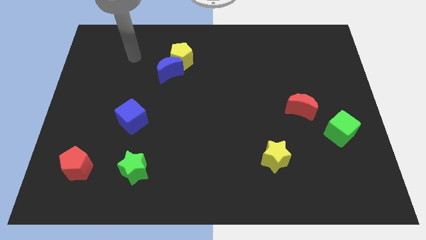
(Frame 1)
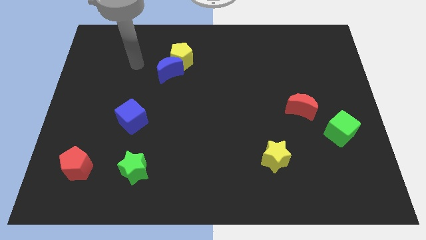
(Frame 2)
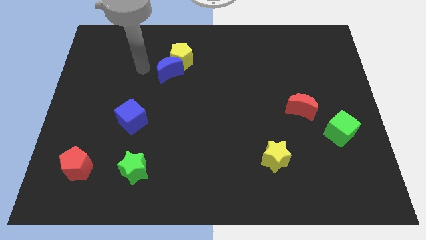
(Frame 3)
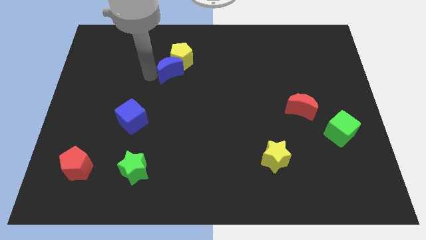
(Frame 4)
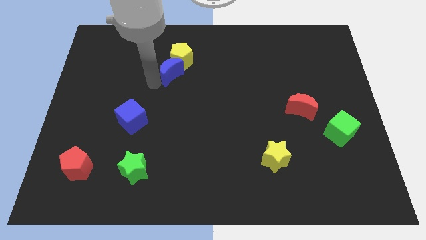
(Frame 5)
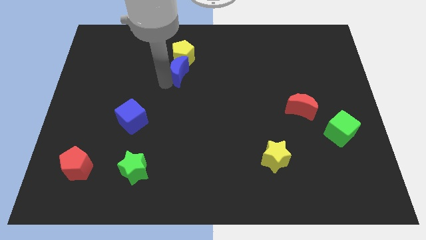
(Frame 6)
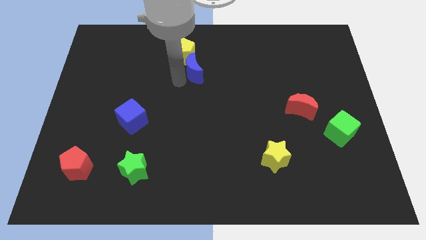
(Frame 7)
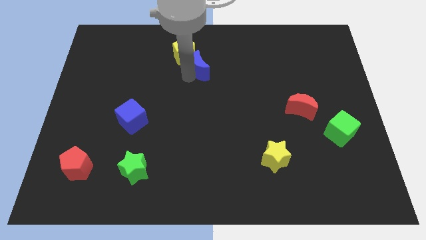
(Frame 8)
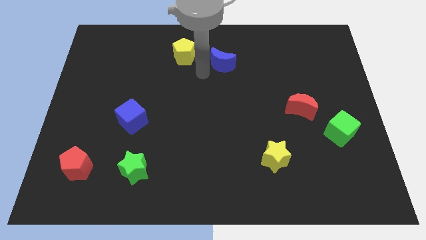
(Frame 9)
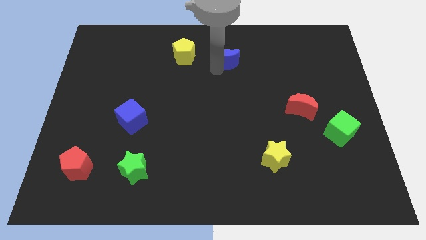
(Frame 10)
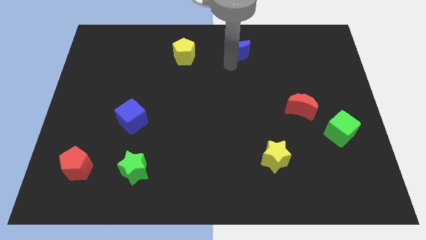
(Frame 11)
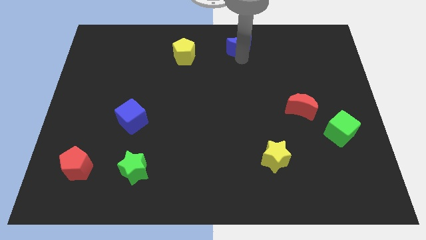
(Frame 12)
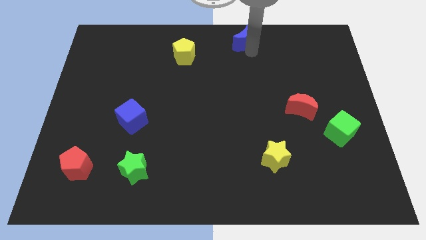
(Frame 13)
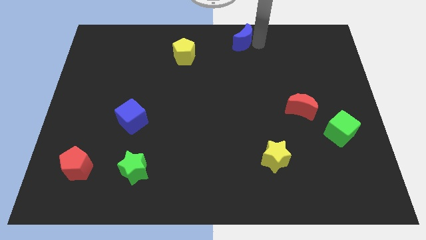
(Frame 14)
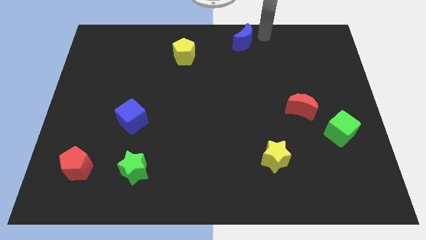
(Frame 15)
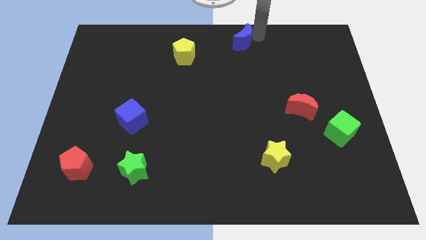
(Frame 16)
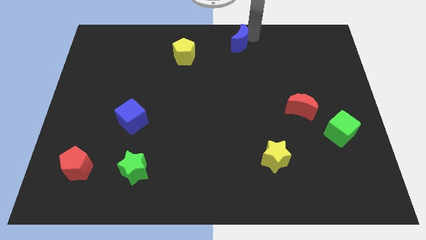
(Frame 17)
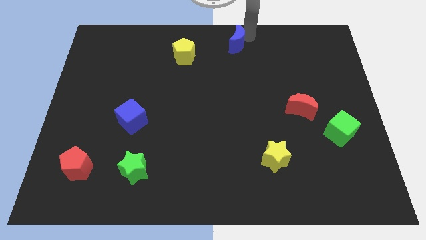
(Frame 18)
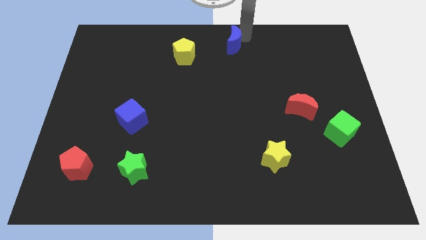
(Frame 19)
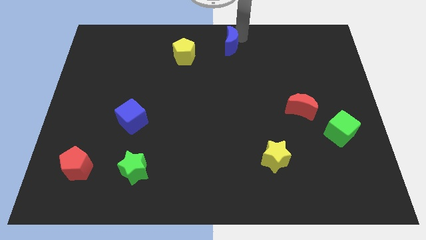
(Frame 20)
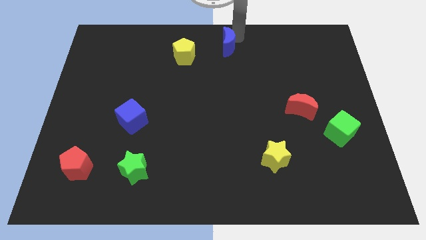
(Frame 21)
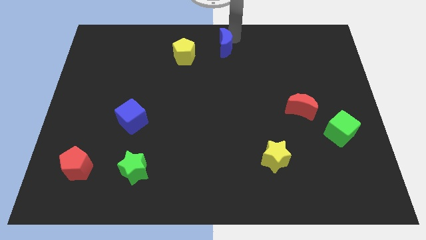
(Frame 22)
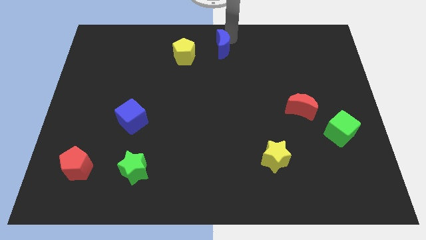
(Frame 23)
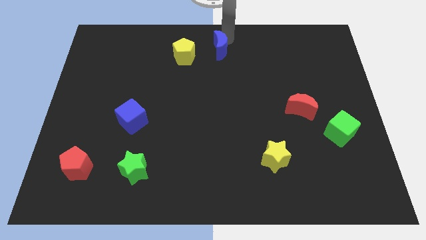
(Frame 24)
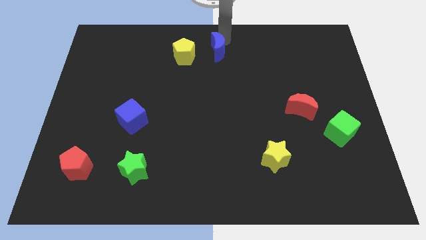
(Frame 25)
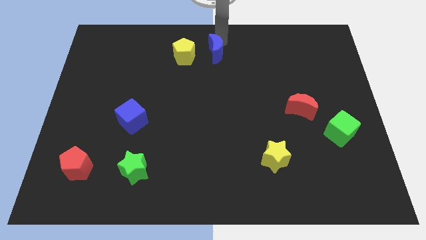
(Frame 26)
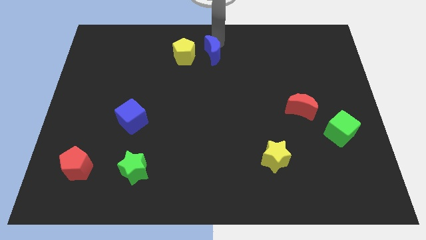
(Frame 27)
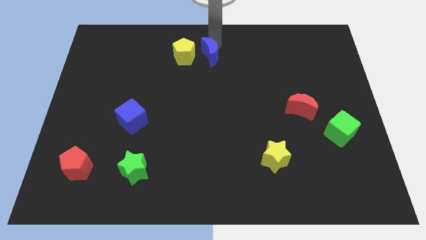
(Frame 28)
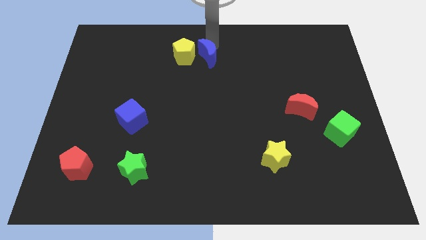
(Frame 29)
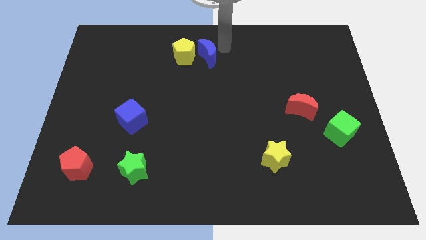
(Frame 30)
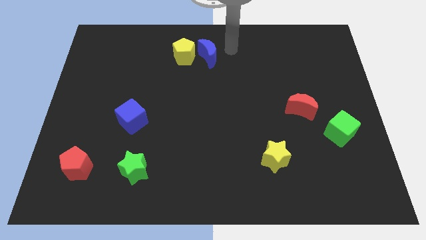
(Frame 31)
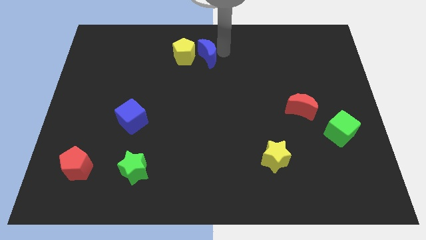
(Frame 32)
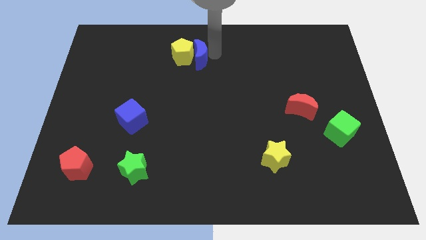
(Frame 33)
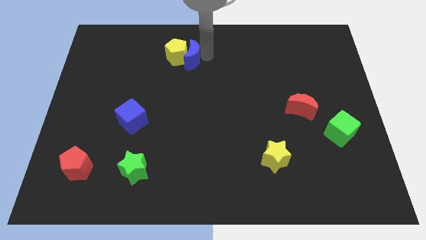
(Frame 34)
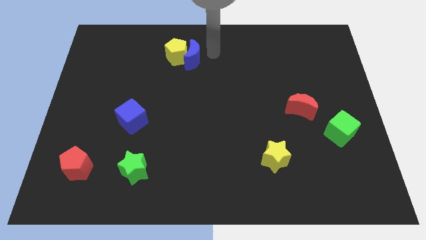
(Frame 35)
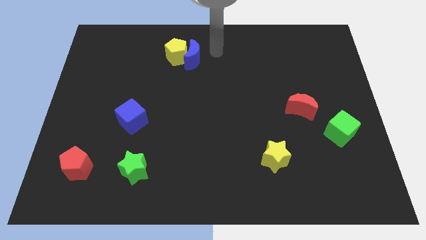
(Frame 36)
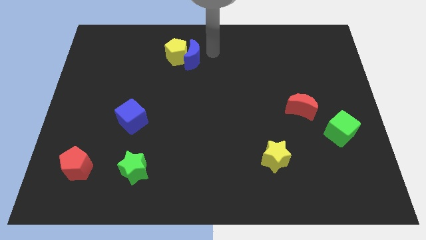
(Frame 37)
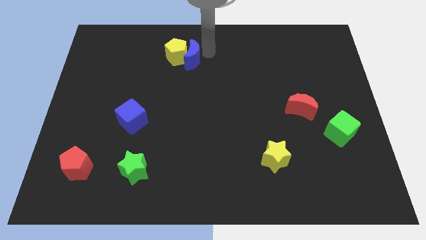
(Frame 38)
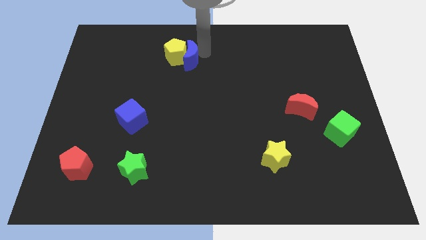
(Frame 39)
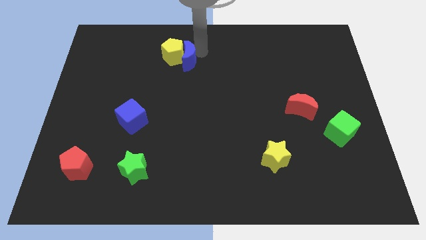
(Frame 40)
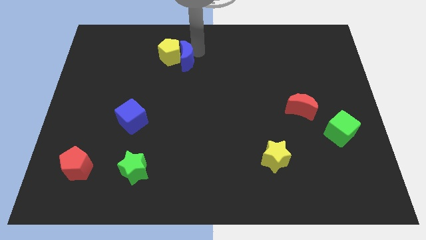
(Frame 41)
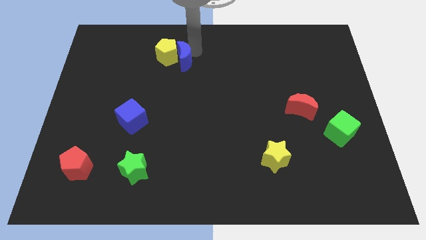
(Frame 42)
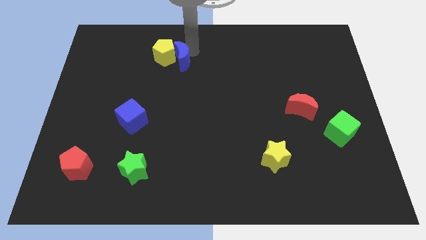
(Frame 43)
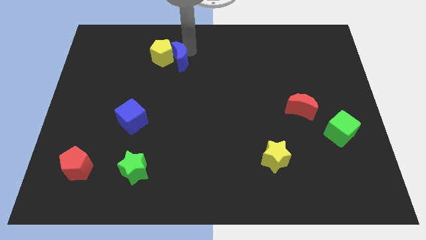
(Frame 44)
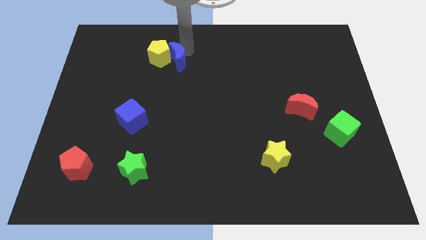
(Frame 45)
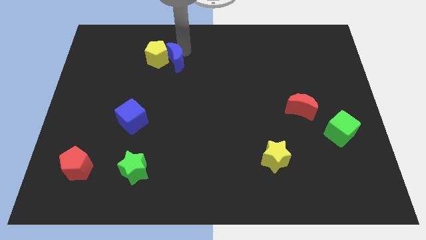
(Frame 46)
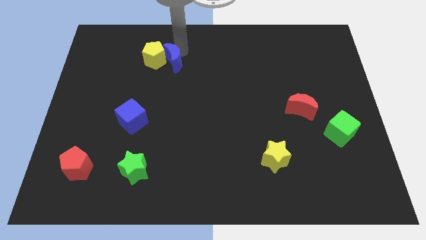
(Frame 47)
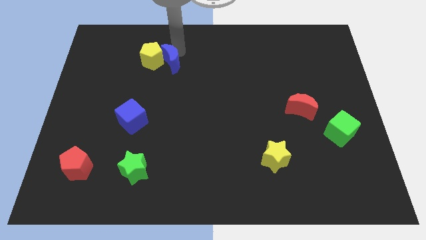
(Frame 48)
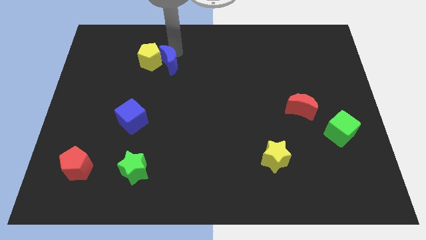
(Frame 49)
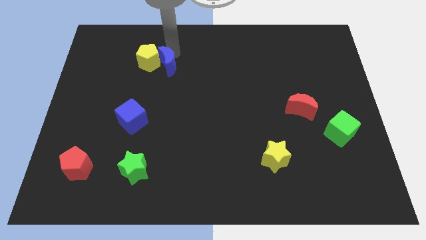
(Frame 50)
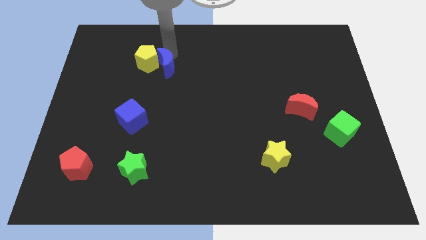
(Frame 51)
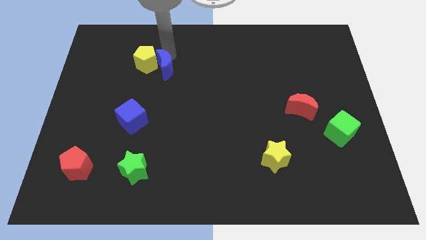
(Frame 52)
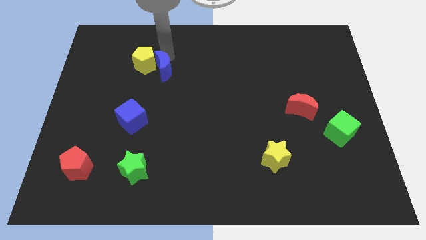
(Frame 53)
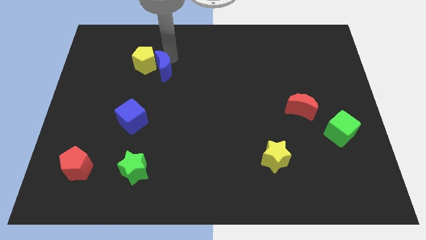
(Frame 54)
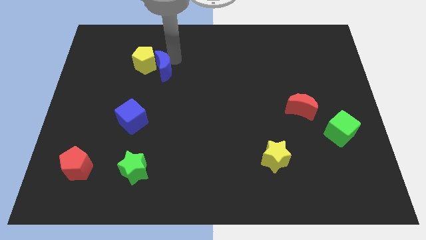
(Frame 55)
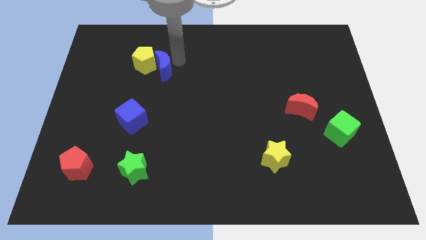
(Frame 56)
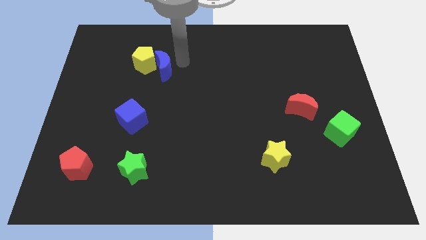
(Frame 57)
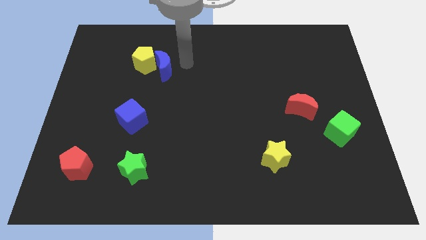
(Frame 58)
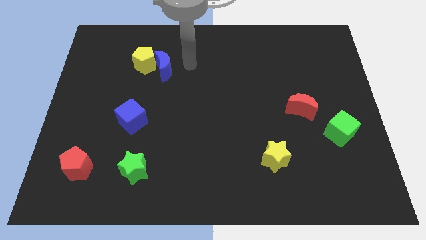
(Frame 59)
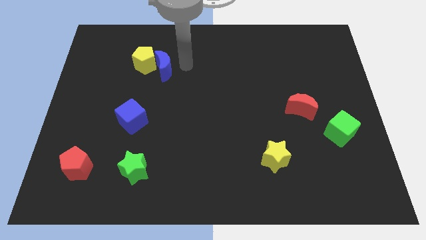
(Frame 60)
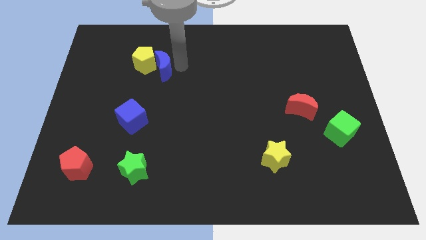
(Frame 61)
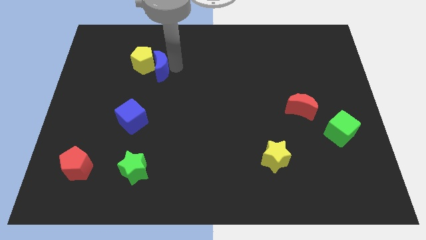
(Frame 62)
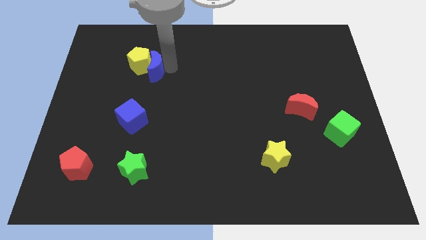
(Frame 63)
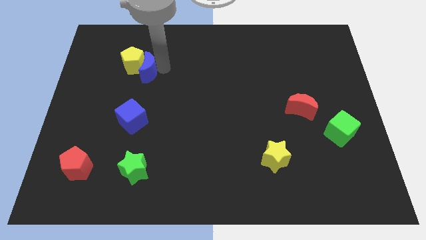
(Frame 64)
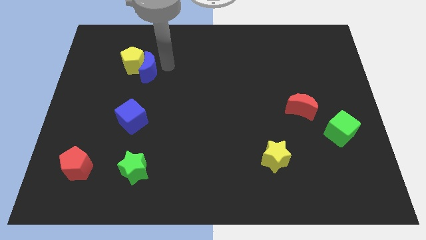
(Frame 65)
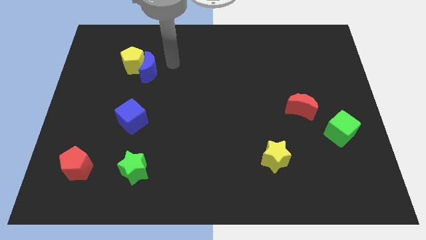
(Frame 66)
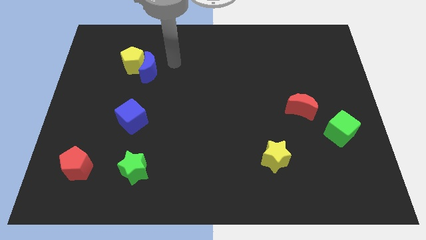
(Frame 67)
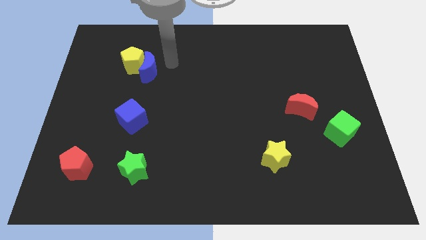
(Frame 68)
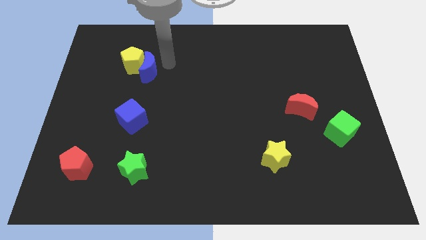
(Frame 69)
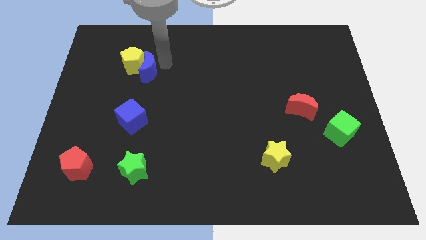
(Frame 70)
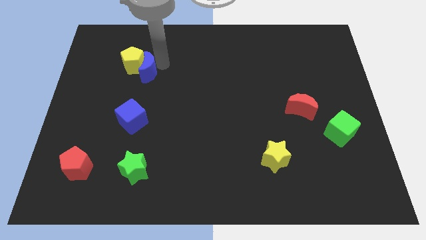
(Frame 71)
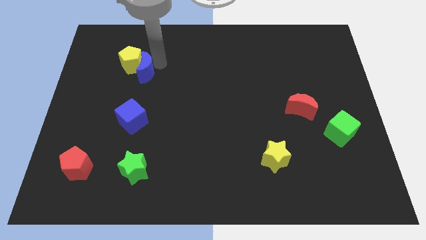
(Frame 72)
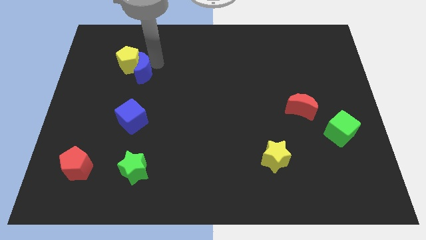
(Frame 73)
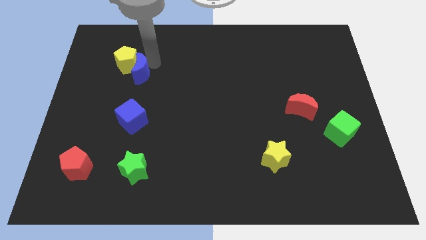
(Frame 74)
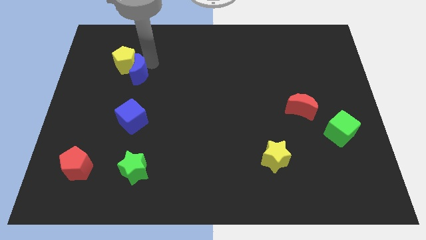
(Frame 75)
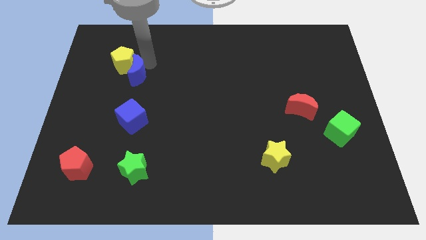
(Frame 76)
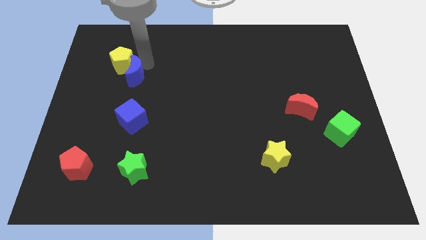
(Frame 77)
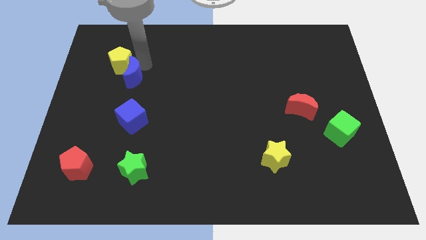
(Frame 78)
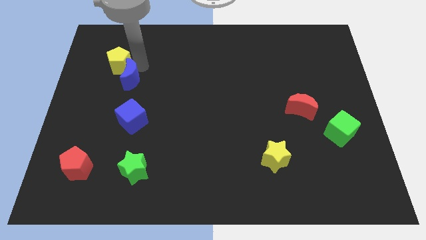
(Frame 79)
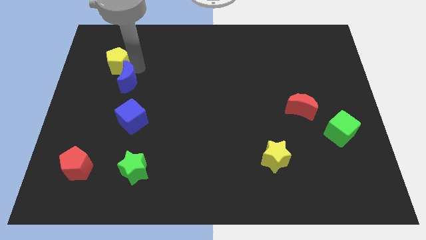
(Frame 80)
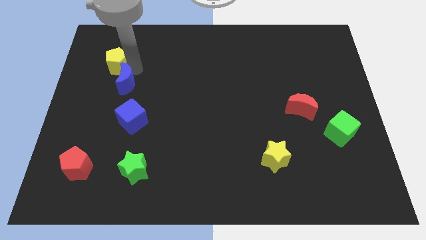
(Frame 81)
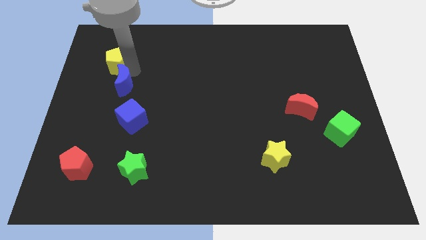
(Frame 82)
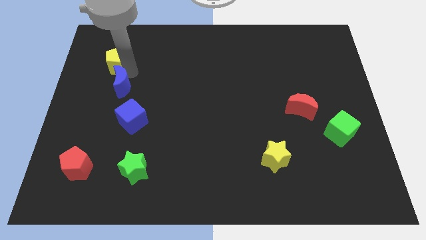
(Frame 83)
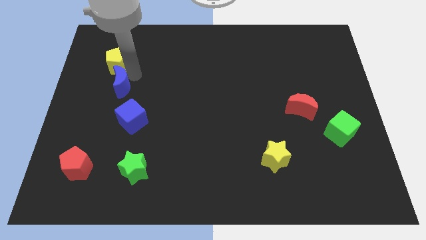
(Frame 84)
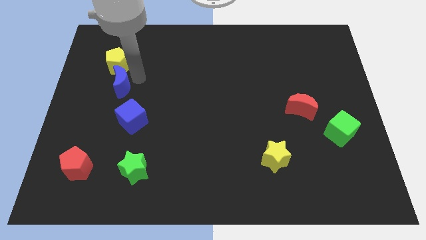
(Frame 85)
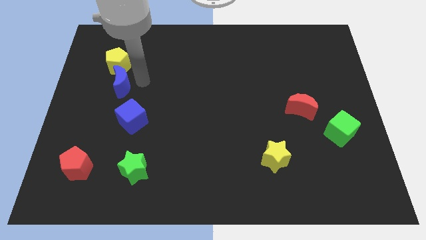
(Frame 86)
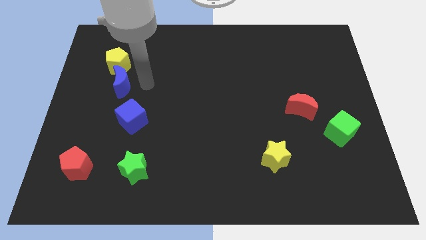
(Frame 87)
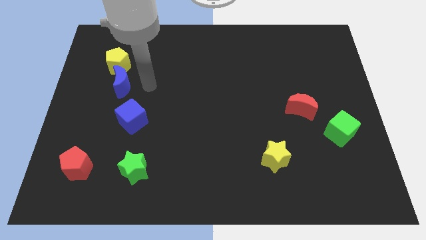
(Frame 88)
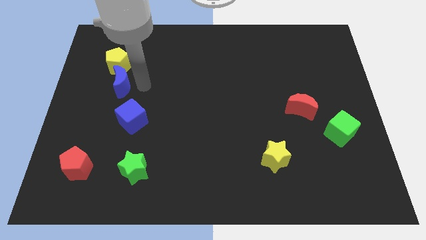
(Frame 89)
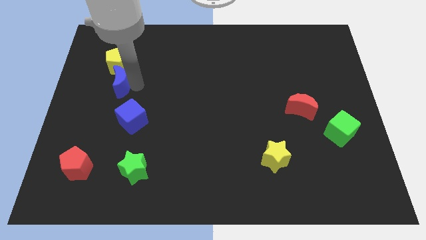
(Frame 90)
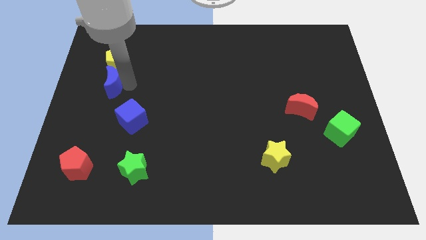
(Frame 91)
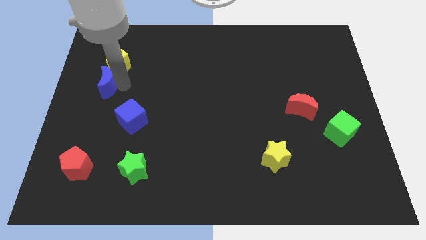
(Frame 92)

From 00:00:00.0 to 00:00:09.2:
slide the blue moon to the center left
